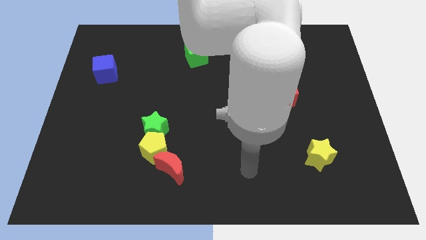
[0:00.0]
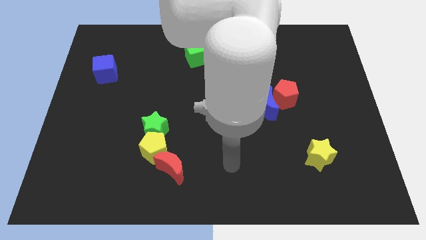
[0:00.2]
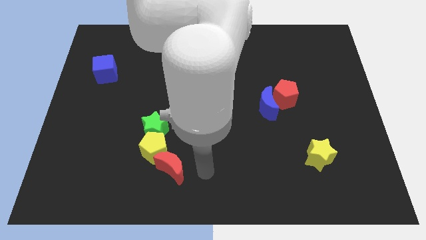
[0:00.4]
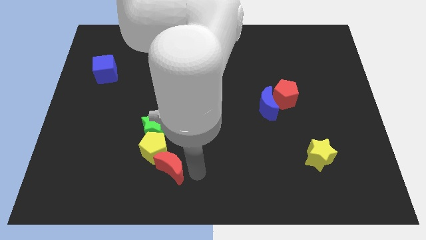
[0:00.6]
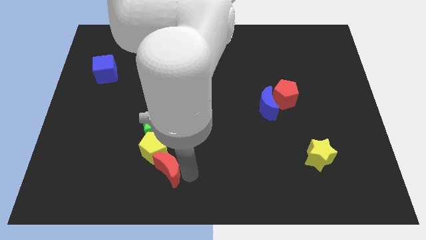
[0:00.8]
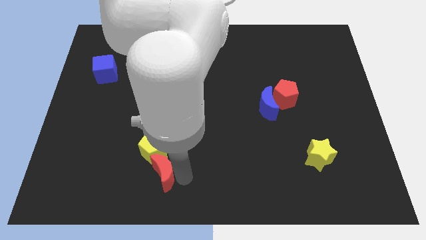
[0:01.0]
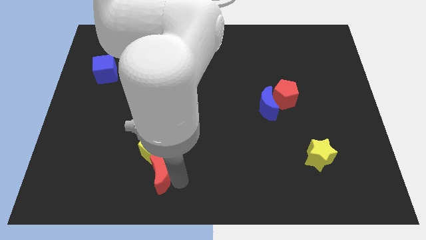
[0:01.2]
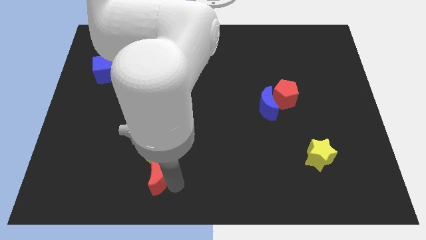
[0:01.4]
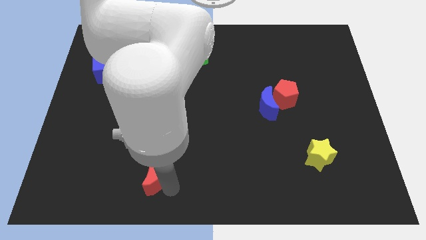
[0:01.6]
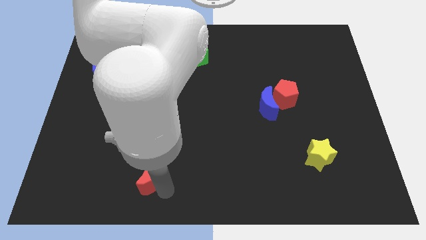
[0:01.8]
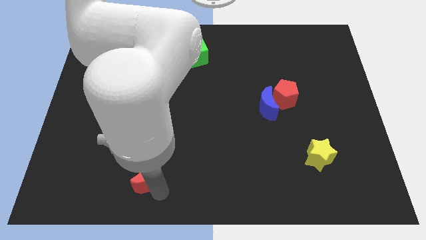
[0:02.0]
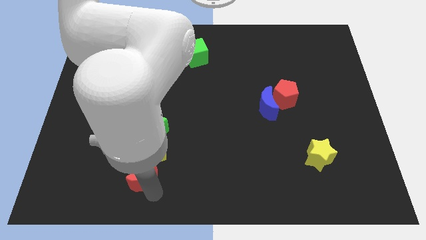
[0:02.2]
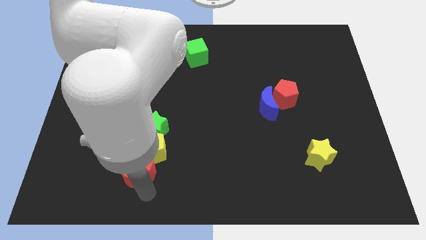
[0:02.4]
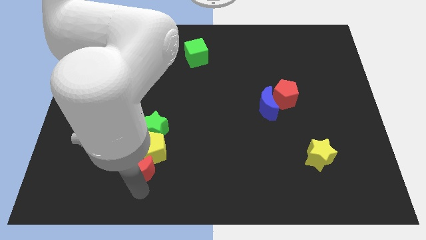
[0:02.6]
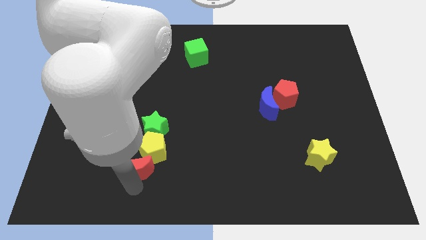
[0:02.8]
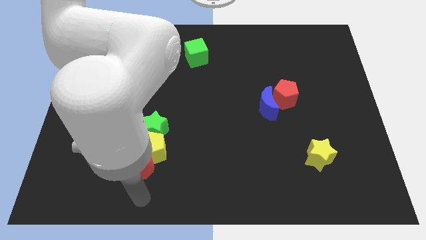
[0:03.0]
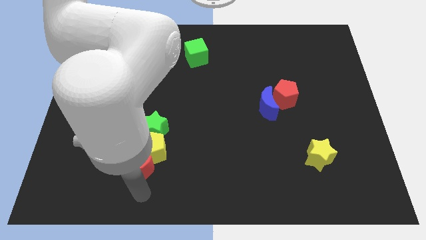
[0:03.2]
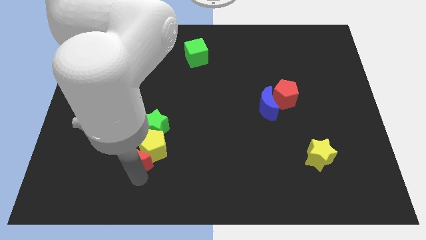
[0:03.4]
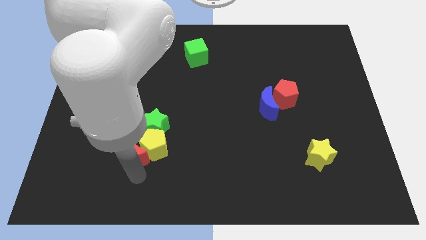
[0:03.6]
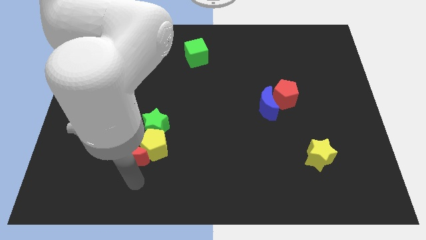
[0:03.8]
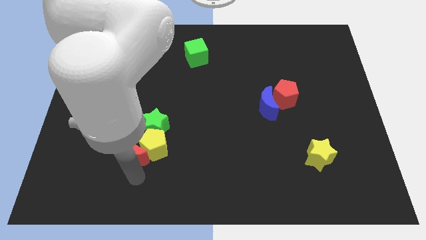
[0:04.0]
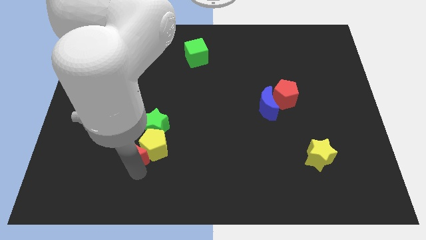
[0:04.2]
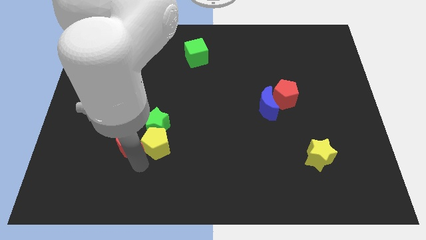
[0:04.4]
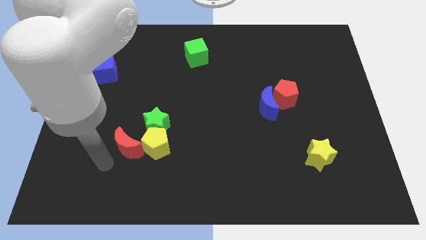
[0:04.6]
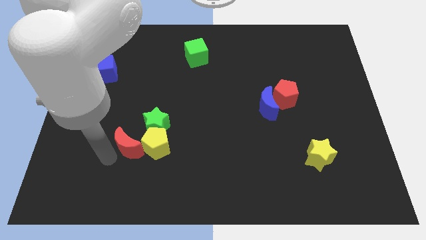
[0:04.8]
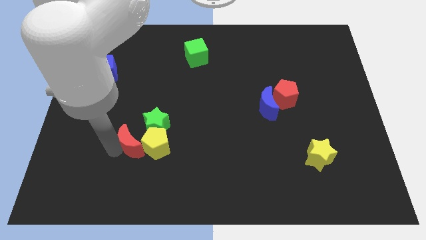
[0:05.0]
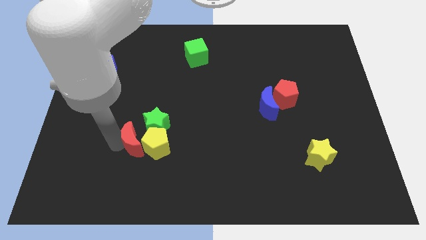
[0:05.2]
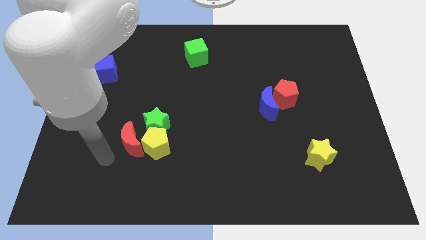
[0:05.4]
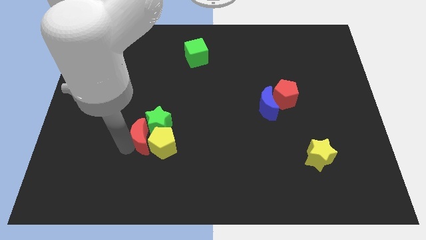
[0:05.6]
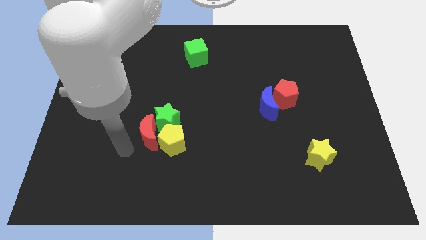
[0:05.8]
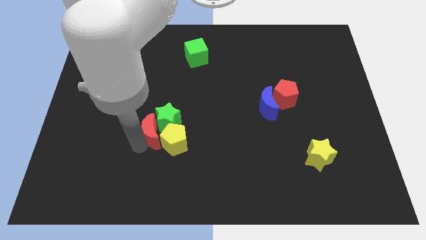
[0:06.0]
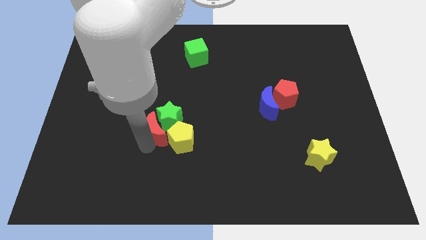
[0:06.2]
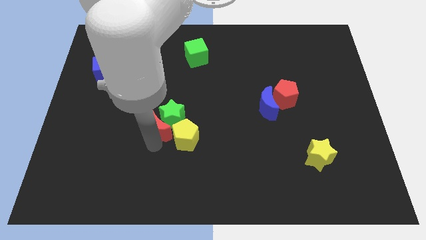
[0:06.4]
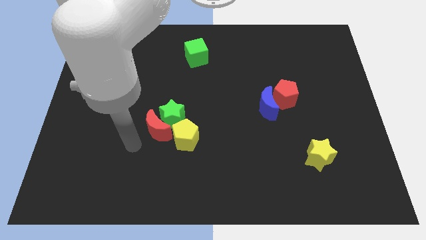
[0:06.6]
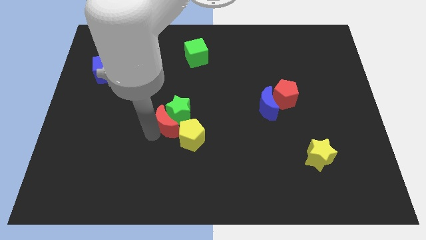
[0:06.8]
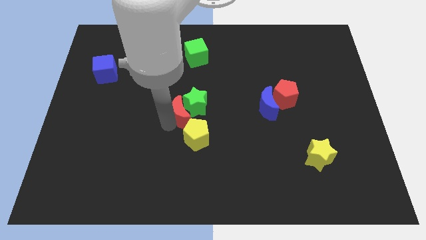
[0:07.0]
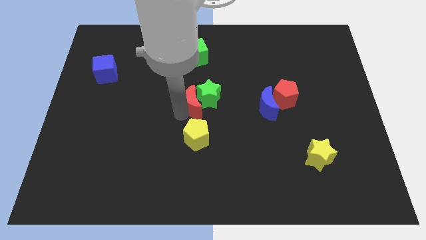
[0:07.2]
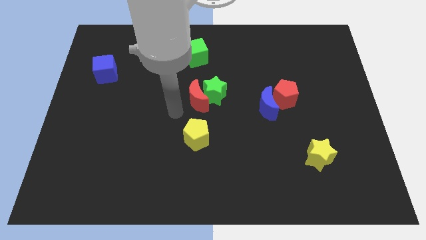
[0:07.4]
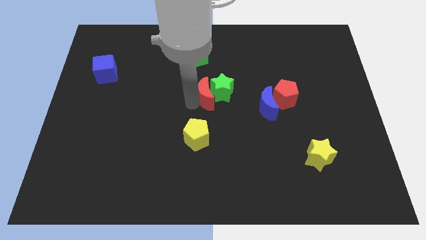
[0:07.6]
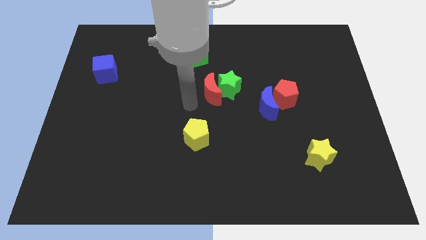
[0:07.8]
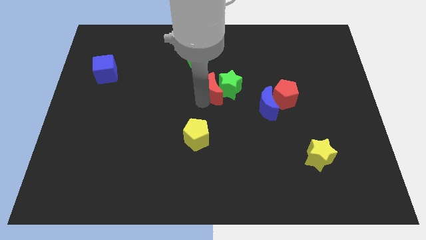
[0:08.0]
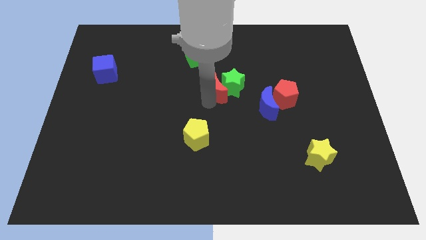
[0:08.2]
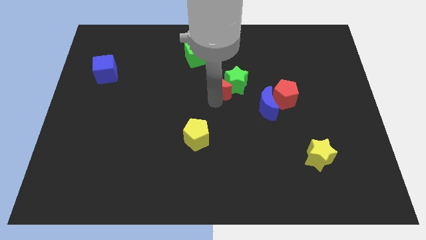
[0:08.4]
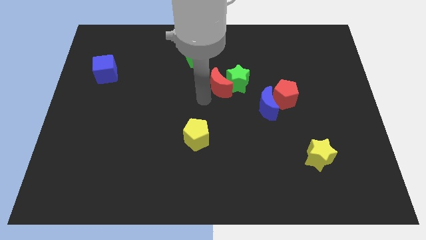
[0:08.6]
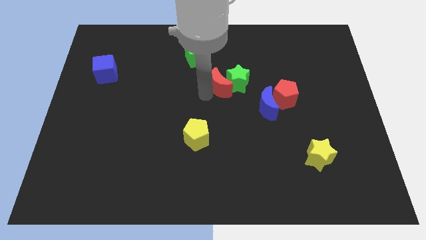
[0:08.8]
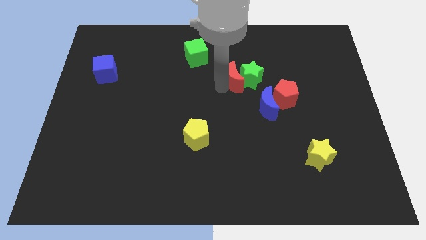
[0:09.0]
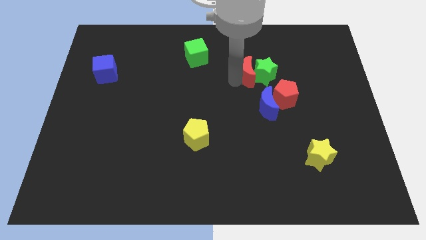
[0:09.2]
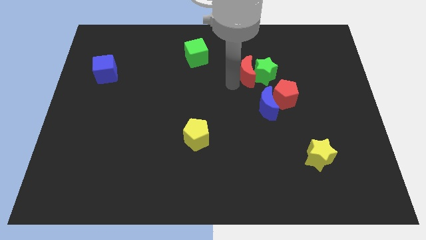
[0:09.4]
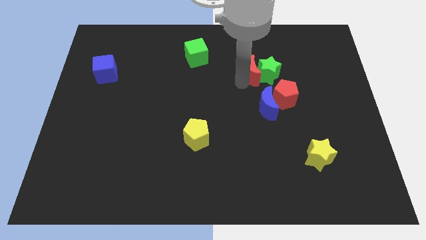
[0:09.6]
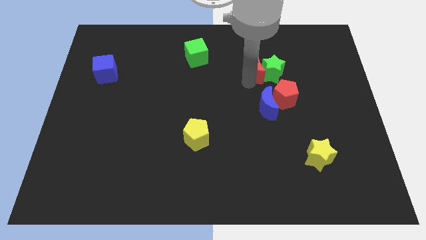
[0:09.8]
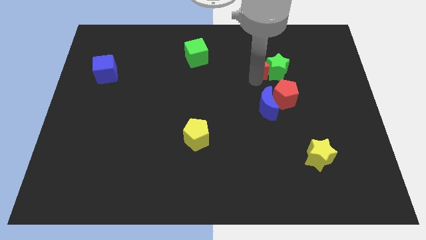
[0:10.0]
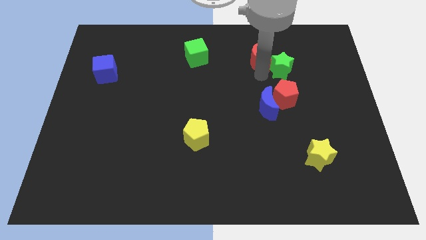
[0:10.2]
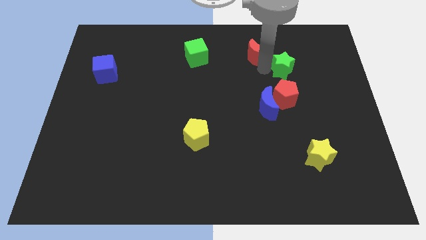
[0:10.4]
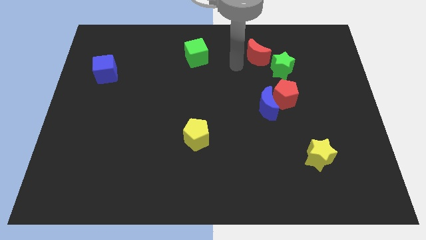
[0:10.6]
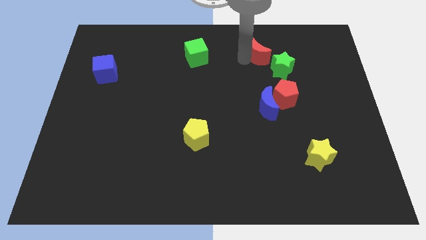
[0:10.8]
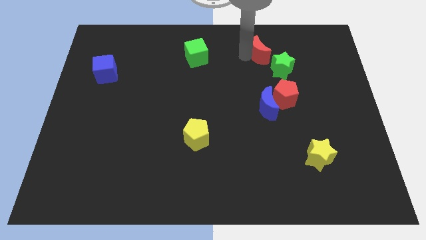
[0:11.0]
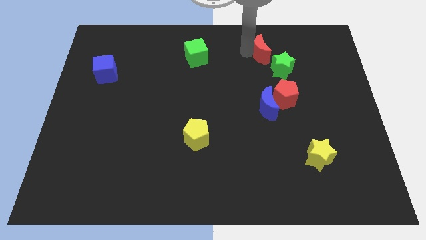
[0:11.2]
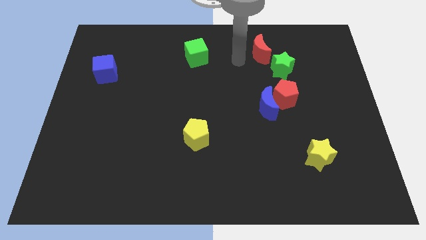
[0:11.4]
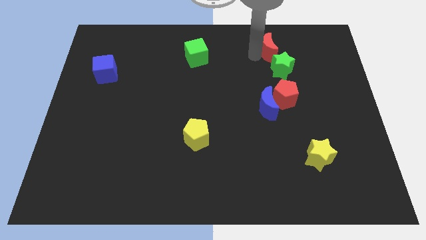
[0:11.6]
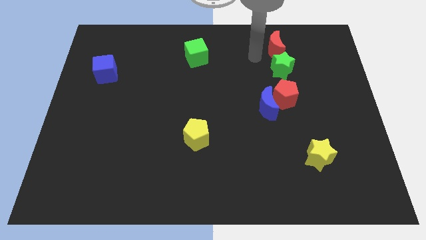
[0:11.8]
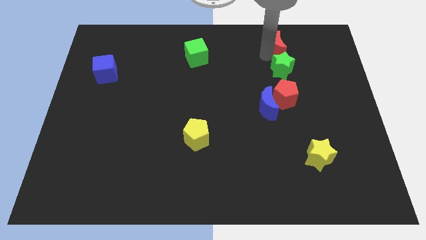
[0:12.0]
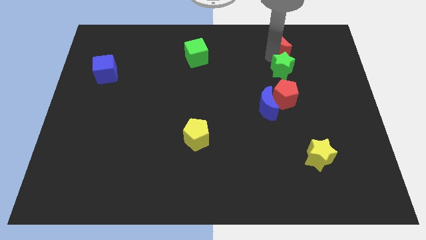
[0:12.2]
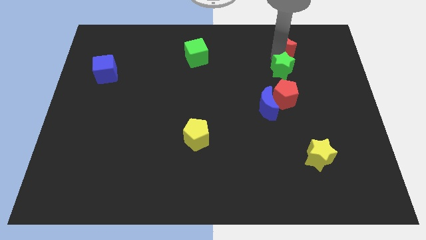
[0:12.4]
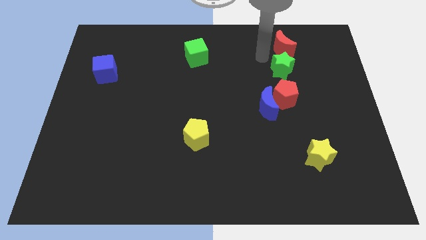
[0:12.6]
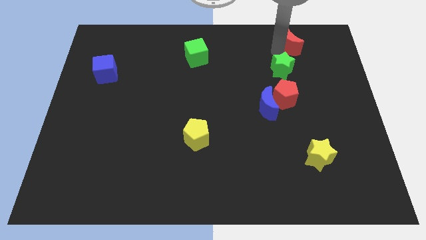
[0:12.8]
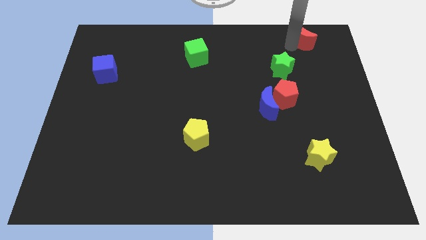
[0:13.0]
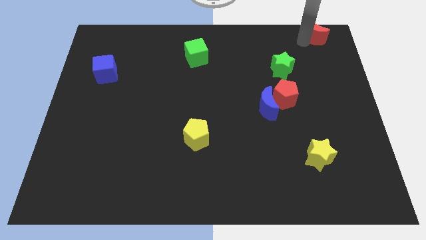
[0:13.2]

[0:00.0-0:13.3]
put the red moon to the top right

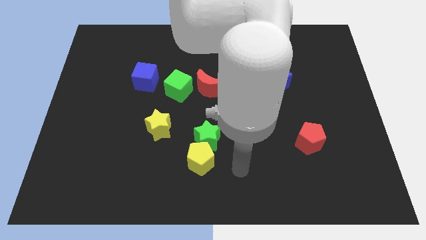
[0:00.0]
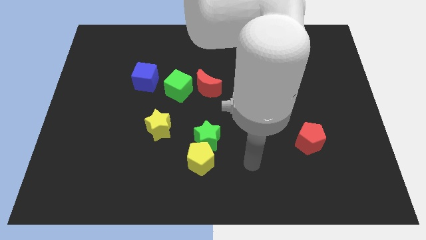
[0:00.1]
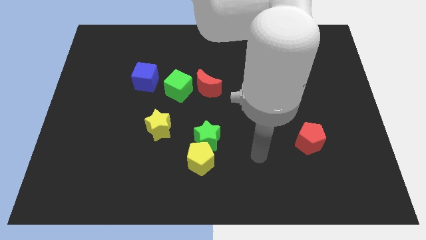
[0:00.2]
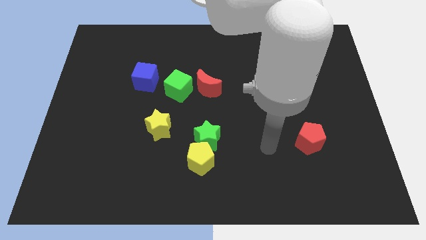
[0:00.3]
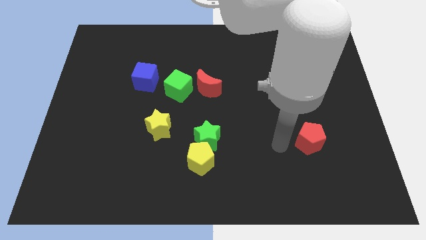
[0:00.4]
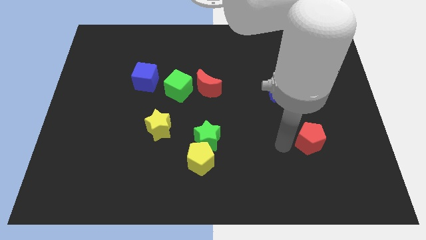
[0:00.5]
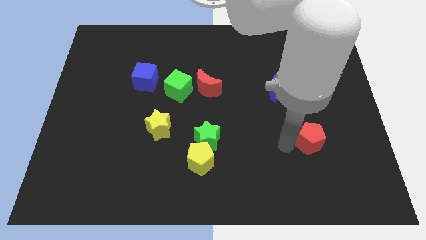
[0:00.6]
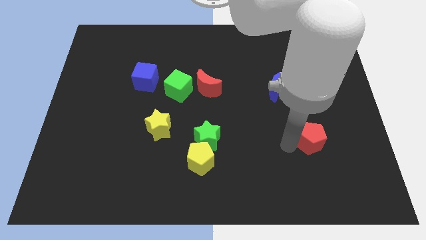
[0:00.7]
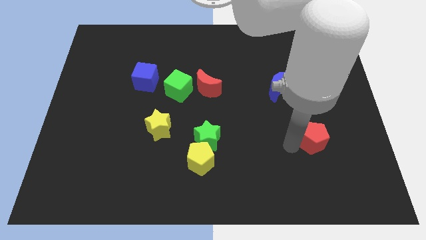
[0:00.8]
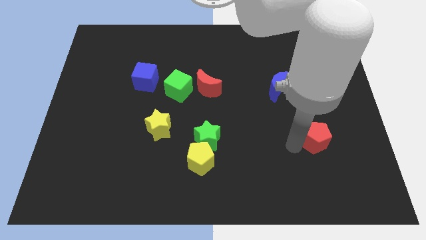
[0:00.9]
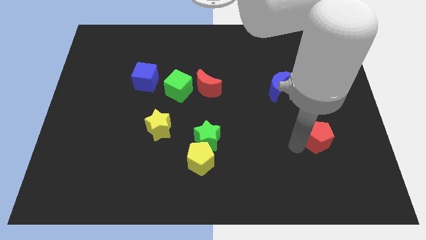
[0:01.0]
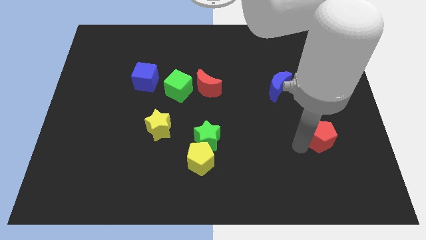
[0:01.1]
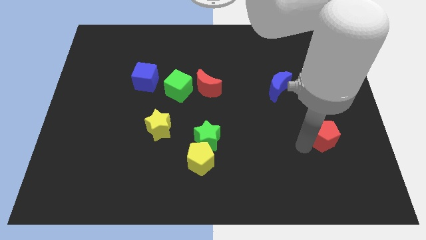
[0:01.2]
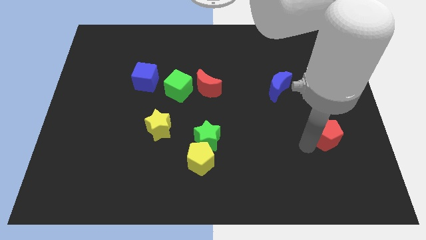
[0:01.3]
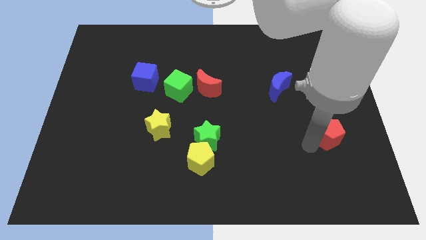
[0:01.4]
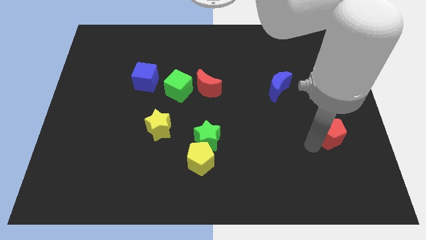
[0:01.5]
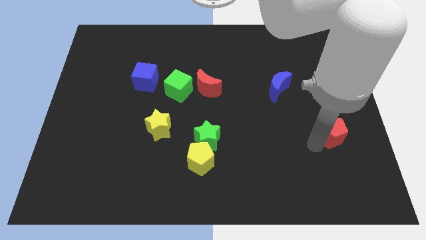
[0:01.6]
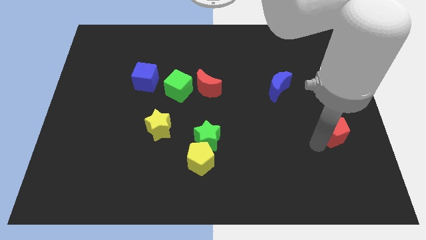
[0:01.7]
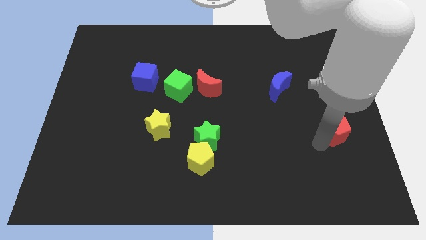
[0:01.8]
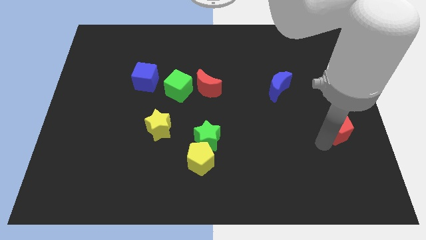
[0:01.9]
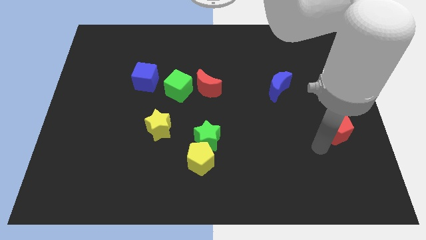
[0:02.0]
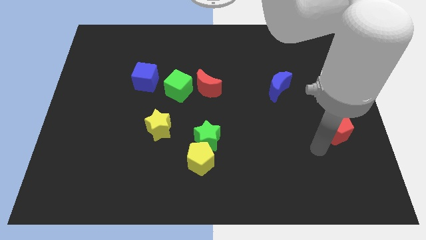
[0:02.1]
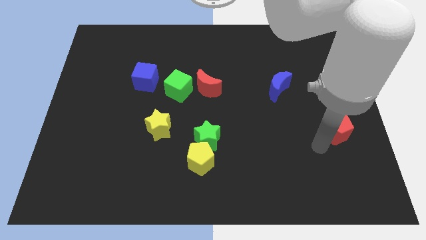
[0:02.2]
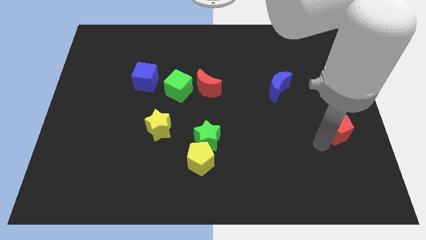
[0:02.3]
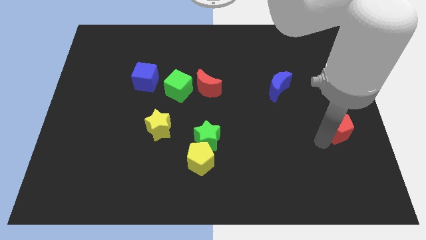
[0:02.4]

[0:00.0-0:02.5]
push the red pentagon to the right side of the board
